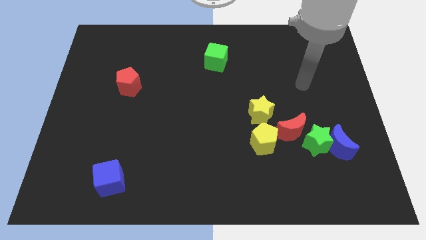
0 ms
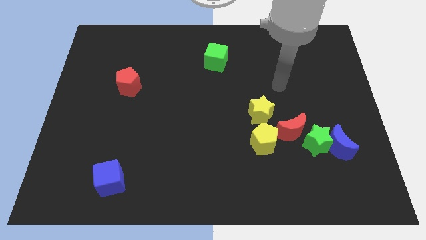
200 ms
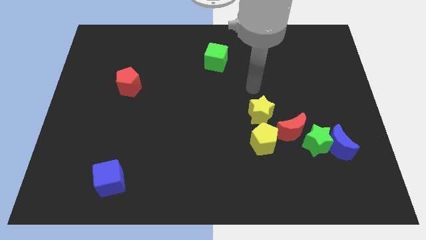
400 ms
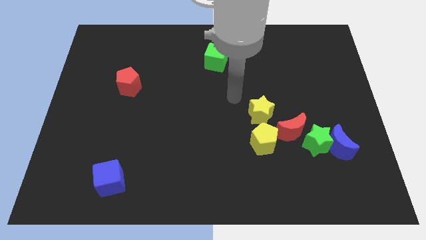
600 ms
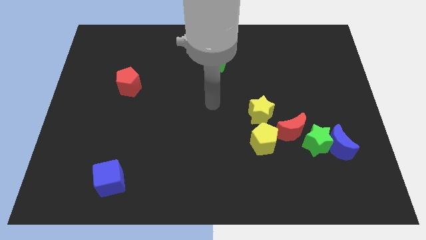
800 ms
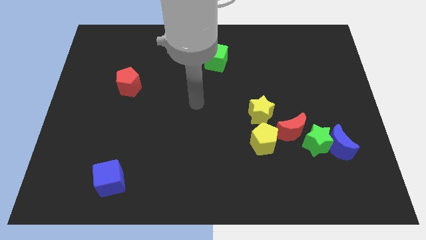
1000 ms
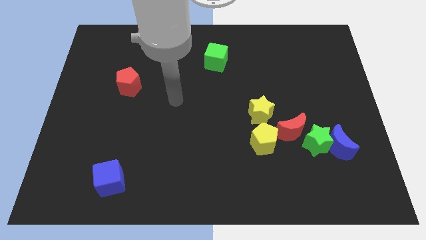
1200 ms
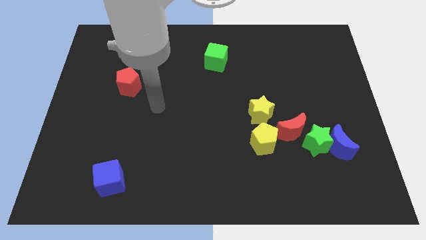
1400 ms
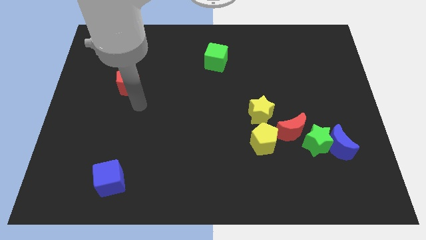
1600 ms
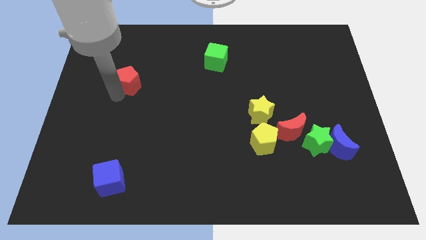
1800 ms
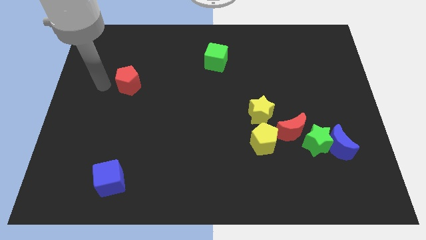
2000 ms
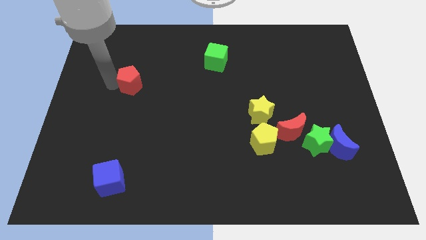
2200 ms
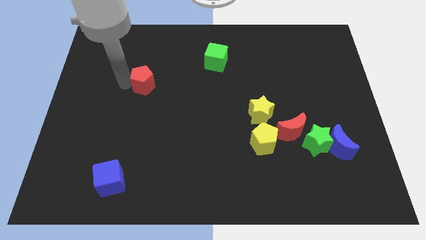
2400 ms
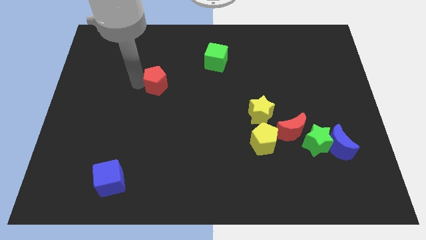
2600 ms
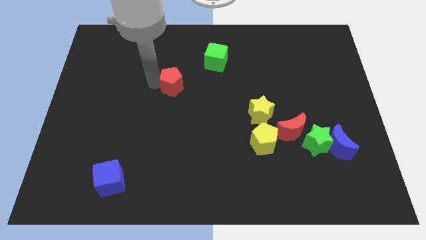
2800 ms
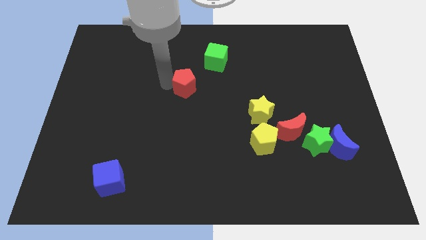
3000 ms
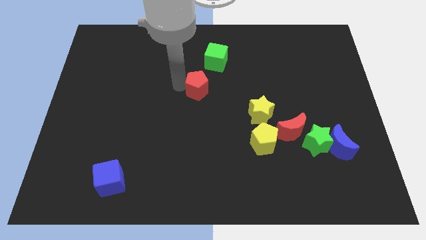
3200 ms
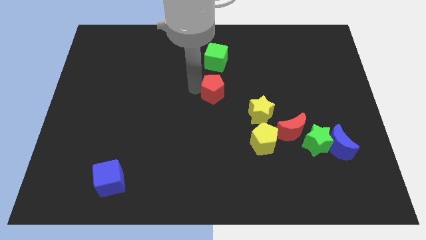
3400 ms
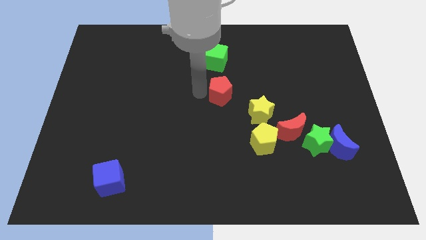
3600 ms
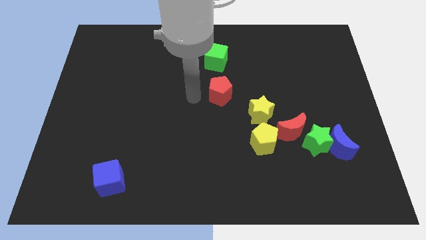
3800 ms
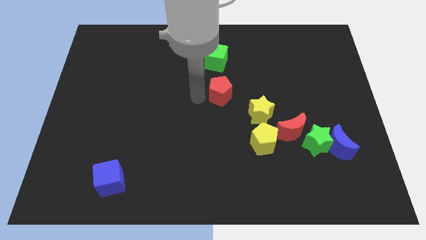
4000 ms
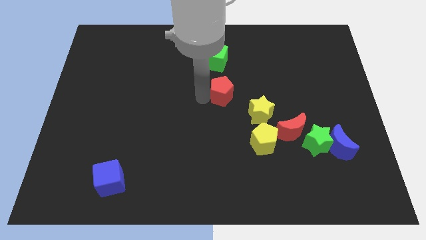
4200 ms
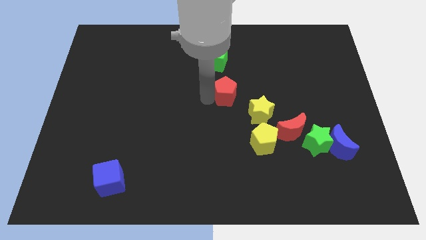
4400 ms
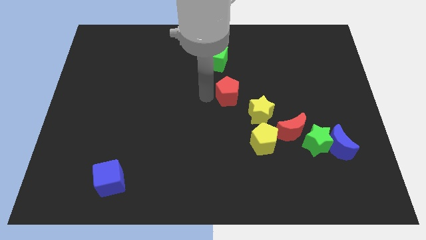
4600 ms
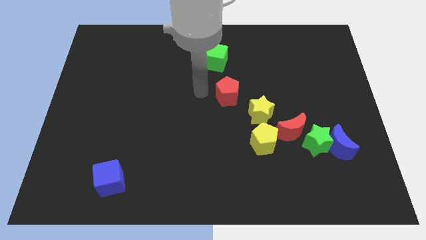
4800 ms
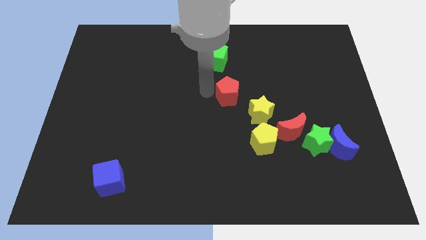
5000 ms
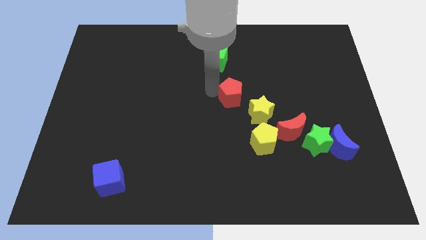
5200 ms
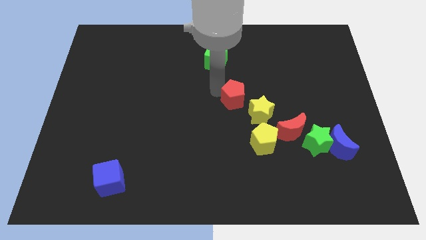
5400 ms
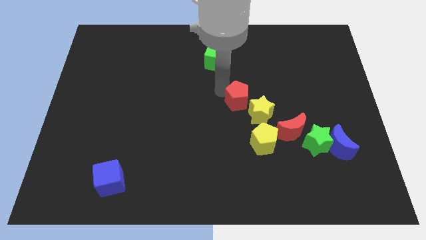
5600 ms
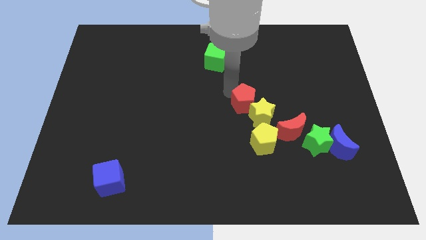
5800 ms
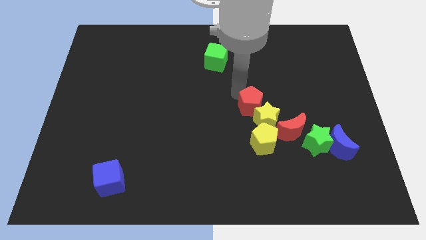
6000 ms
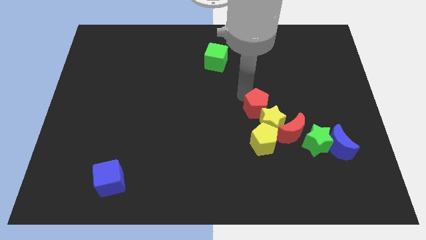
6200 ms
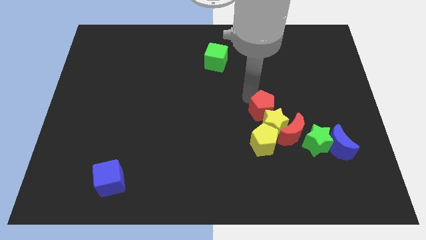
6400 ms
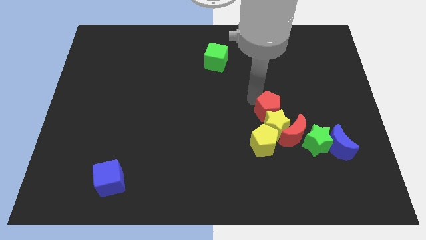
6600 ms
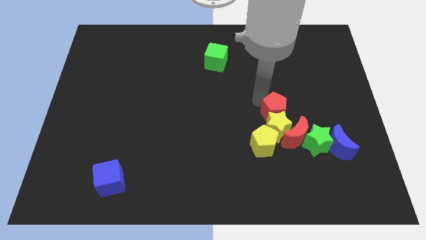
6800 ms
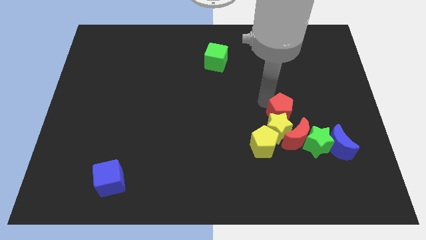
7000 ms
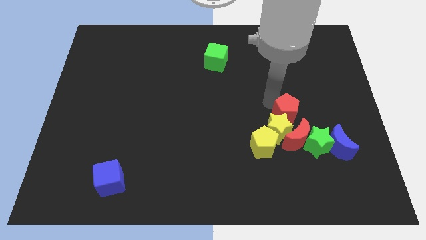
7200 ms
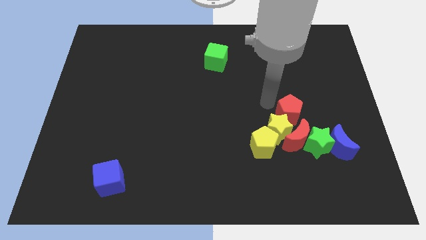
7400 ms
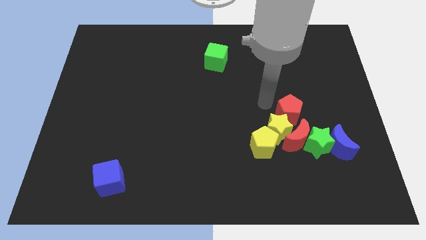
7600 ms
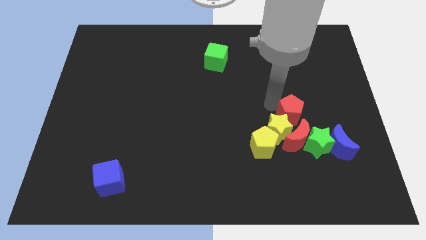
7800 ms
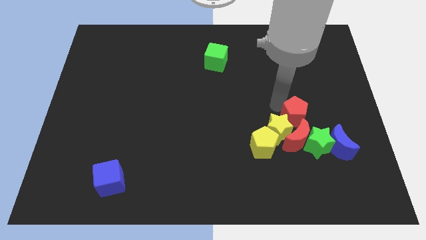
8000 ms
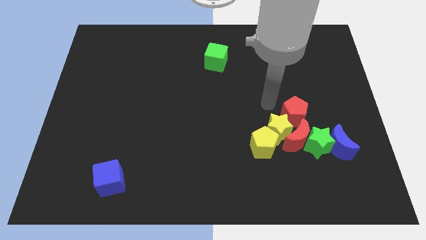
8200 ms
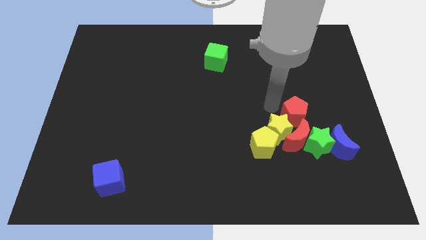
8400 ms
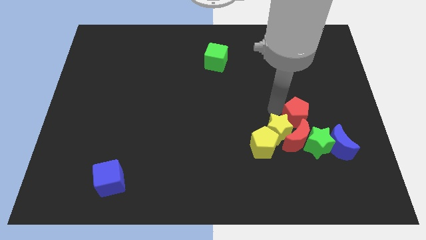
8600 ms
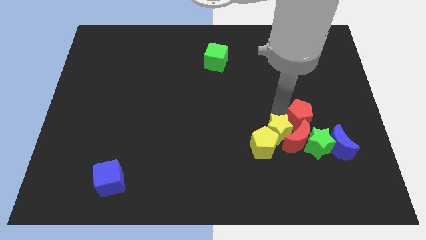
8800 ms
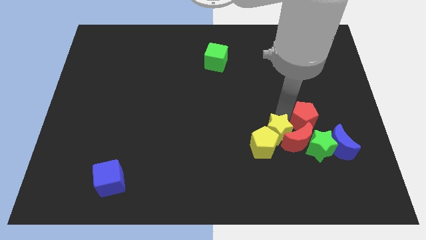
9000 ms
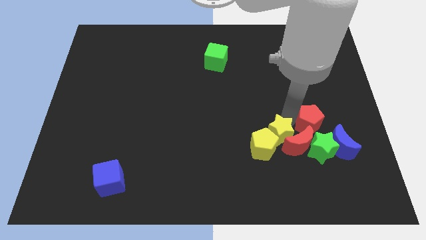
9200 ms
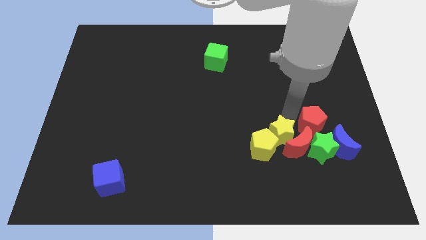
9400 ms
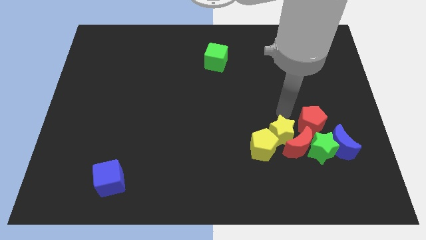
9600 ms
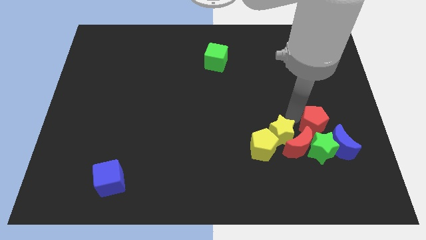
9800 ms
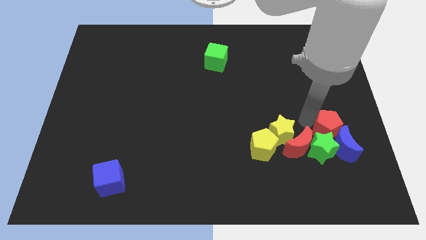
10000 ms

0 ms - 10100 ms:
put the red pentagon next to the blue moon

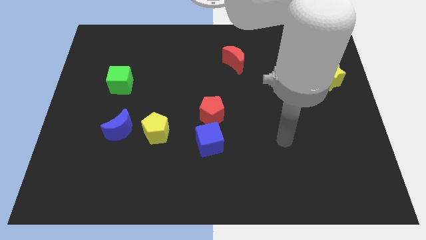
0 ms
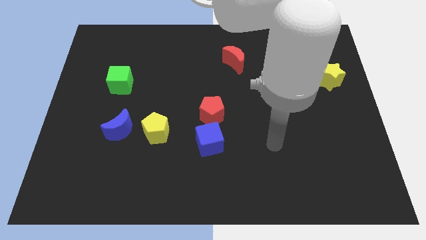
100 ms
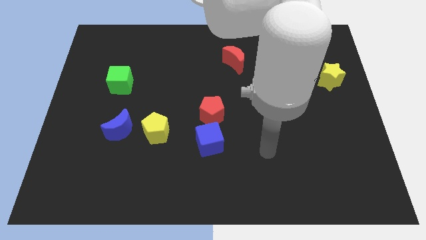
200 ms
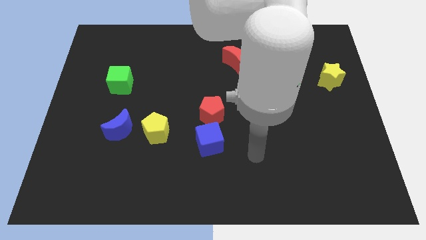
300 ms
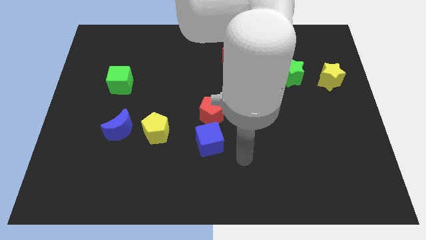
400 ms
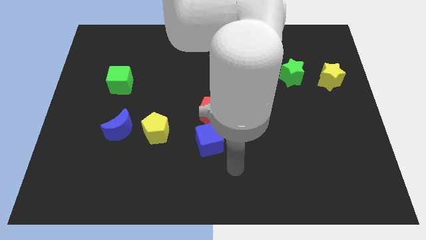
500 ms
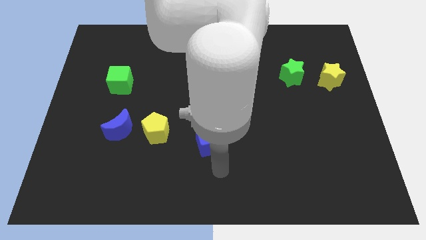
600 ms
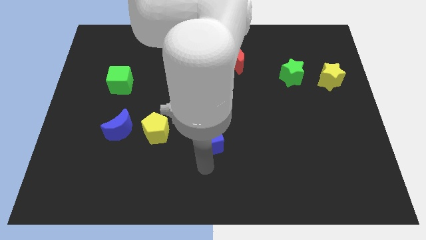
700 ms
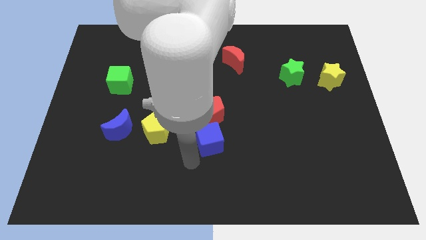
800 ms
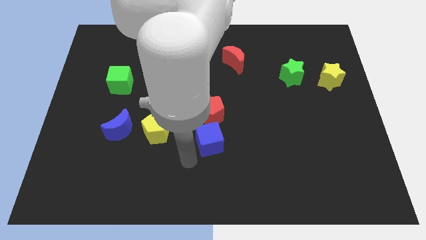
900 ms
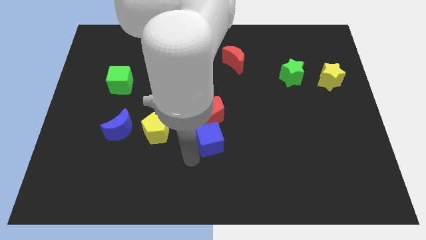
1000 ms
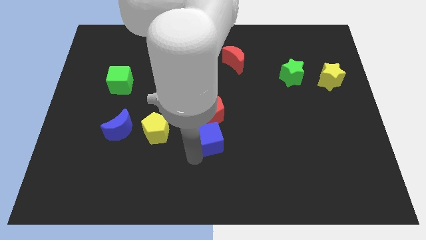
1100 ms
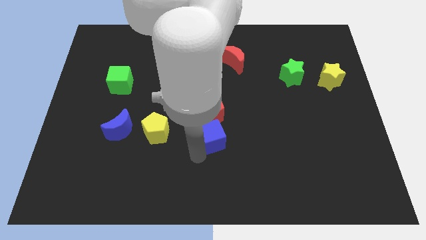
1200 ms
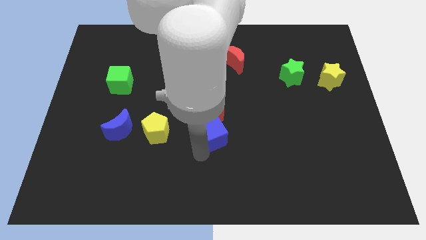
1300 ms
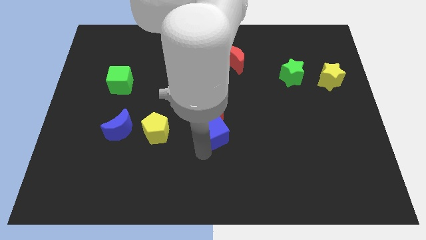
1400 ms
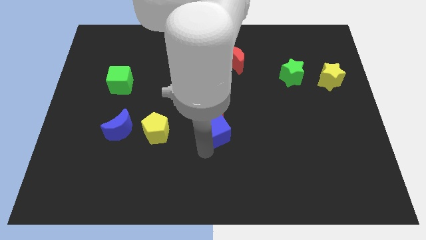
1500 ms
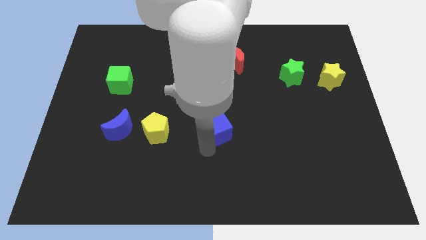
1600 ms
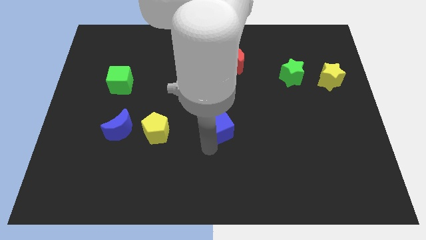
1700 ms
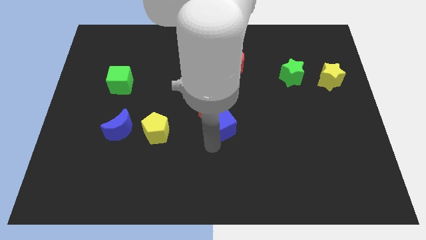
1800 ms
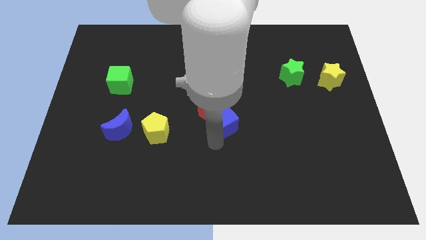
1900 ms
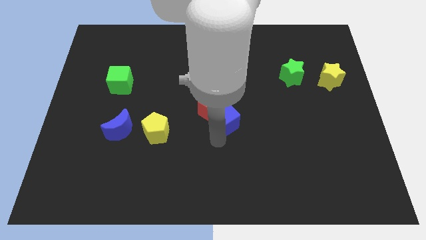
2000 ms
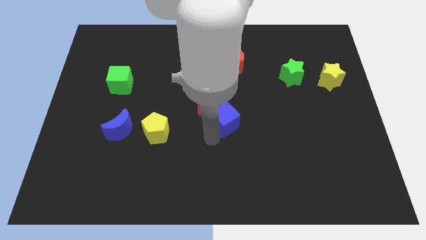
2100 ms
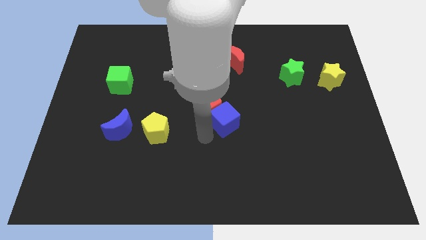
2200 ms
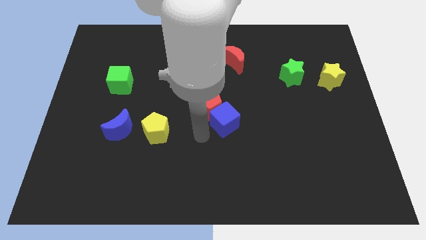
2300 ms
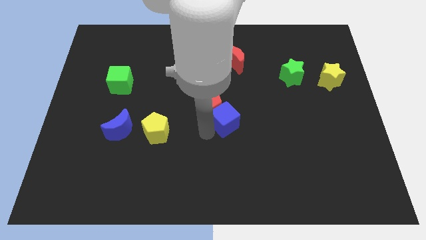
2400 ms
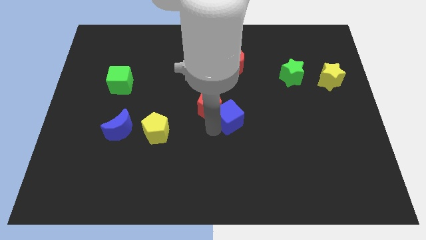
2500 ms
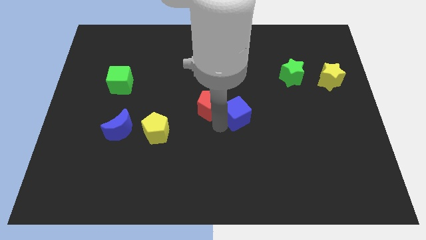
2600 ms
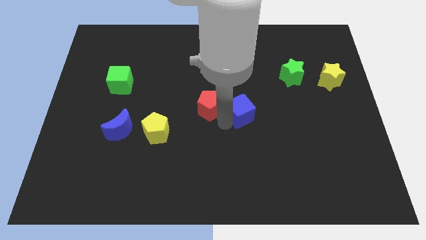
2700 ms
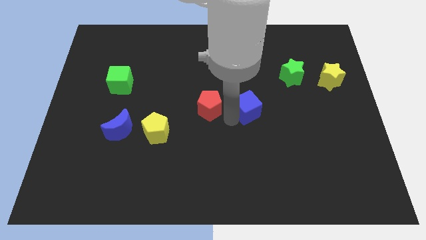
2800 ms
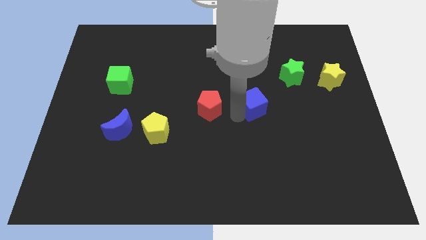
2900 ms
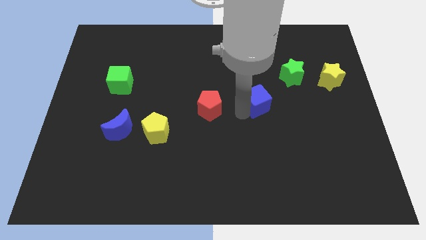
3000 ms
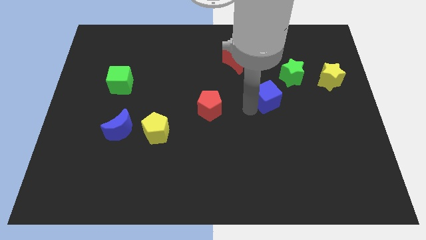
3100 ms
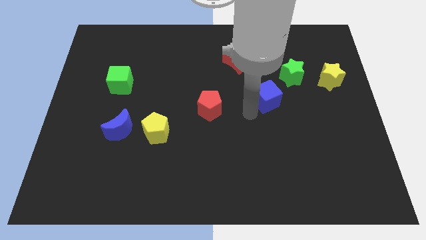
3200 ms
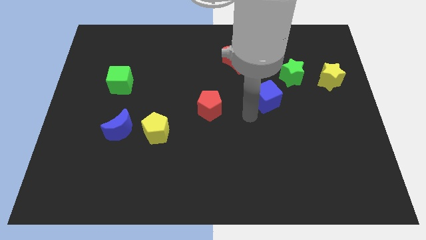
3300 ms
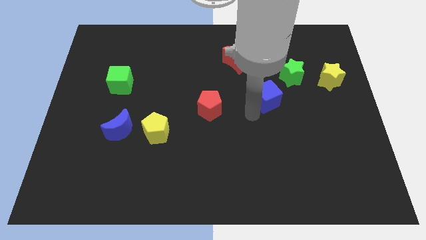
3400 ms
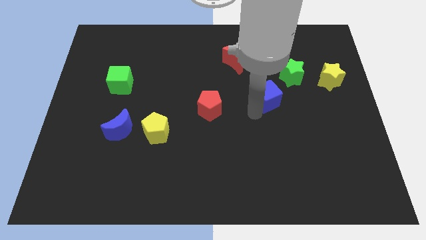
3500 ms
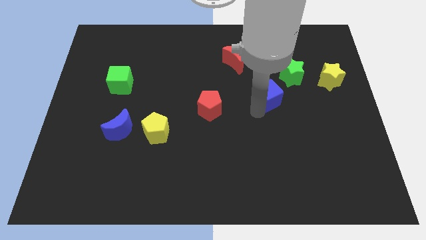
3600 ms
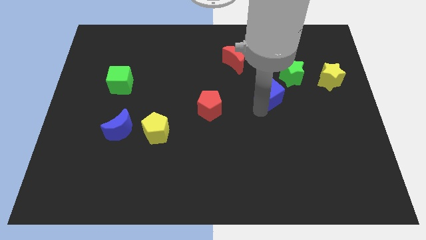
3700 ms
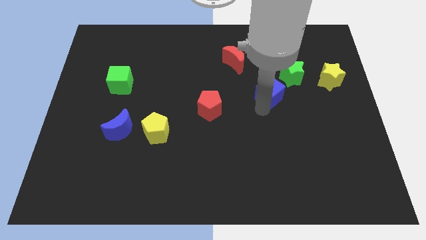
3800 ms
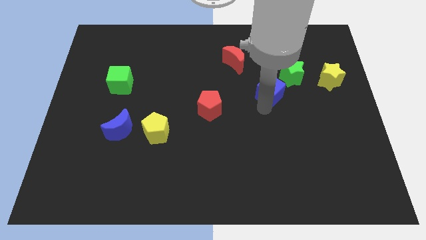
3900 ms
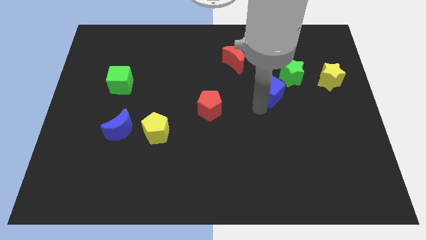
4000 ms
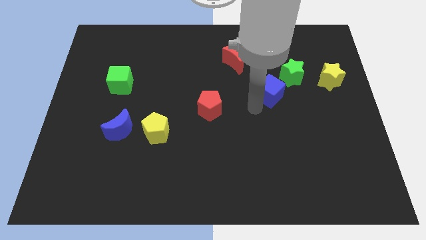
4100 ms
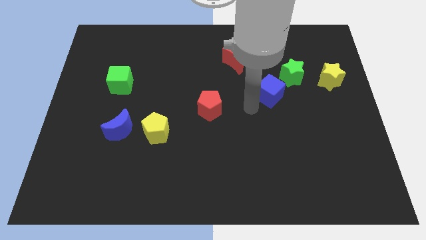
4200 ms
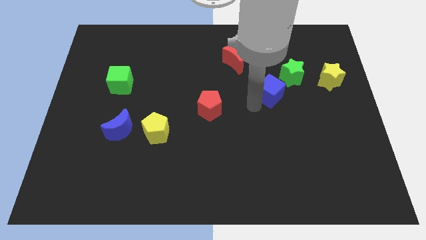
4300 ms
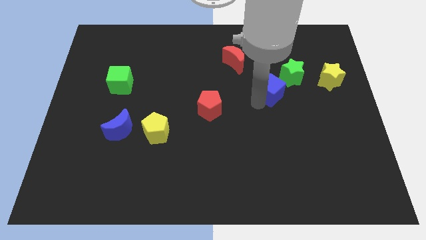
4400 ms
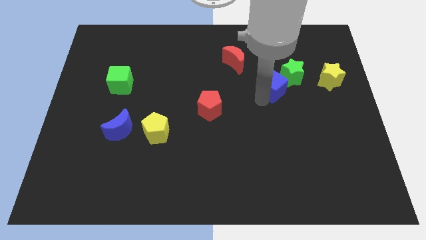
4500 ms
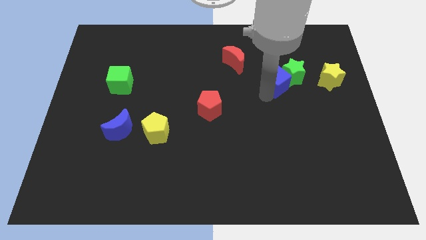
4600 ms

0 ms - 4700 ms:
slide the blue cube towards the green star
